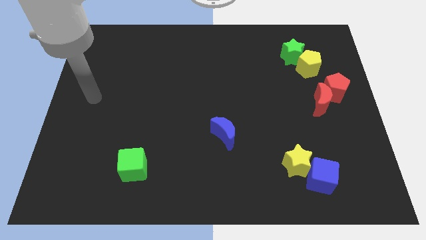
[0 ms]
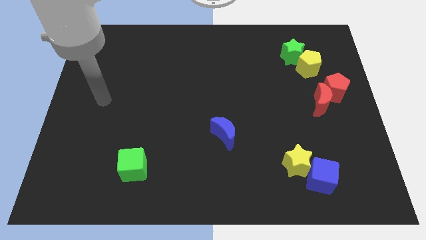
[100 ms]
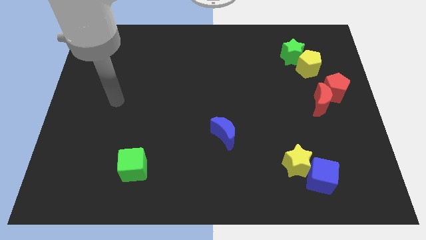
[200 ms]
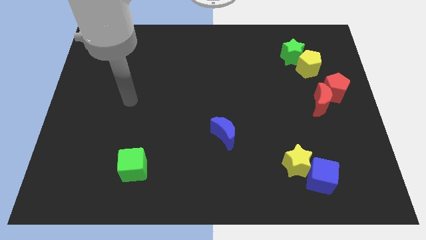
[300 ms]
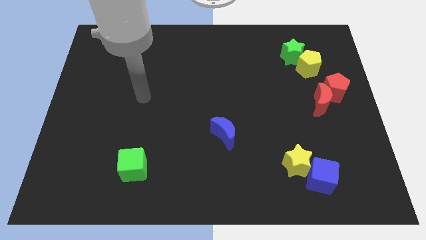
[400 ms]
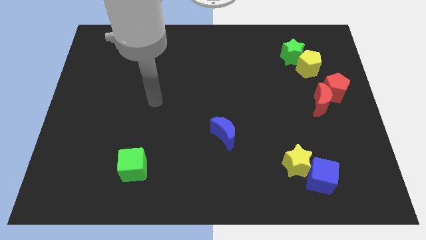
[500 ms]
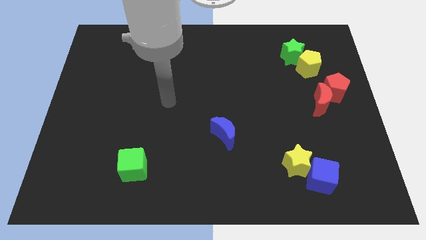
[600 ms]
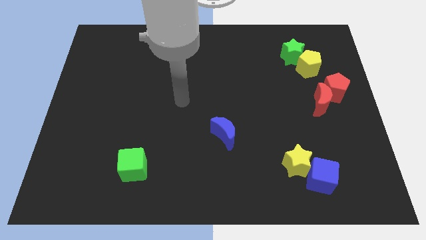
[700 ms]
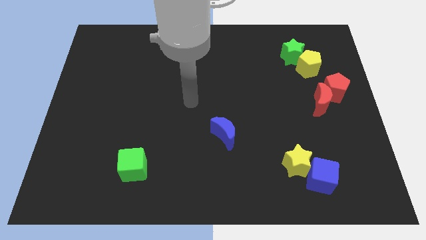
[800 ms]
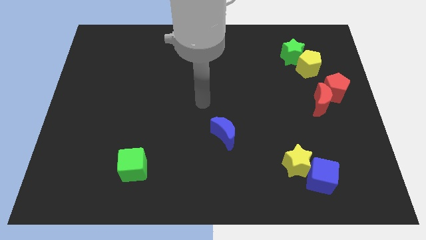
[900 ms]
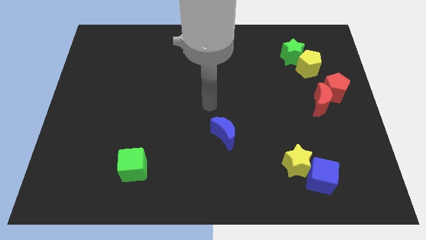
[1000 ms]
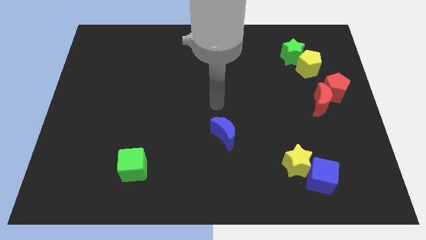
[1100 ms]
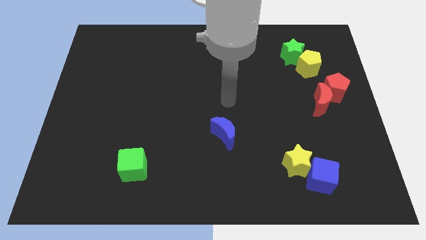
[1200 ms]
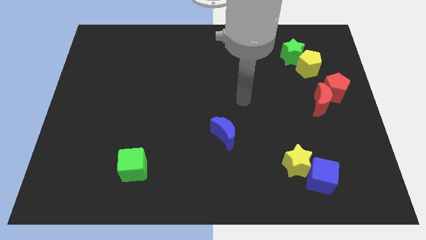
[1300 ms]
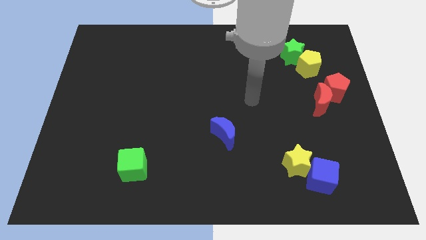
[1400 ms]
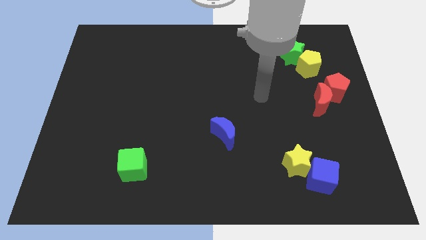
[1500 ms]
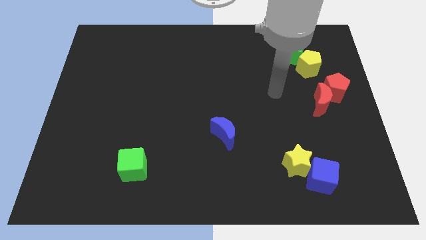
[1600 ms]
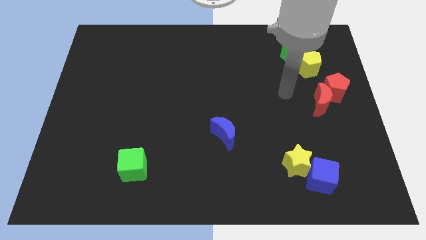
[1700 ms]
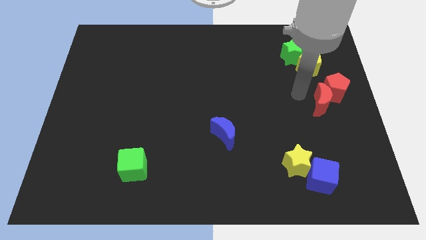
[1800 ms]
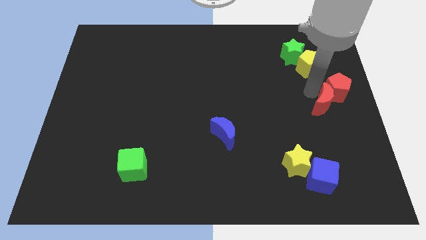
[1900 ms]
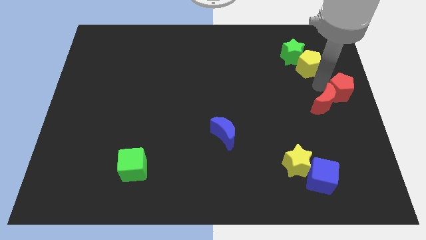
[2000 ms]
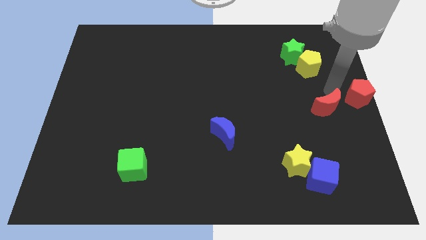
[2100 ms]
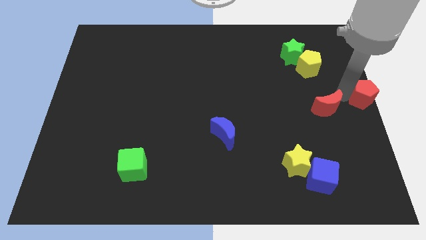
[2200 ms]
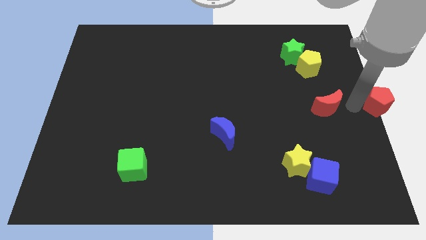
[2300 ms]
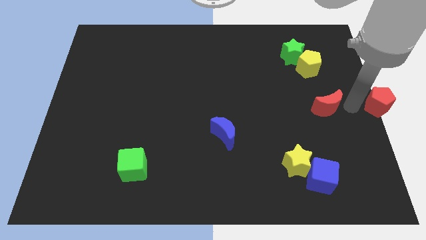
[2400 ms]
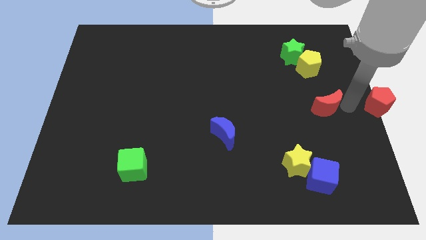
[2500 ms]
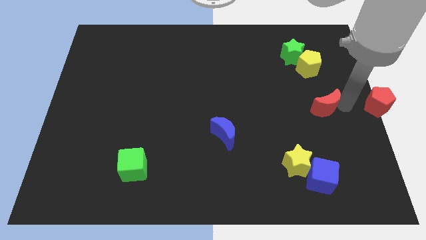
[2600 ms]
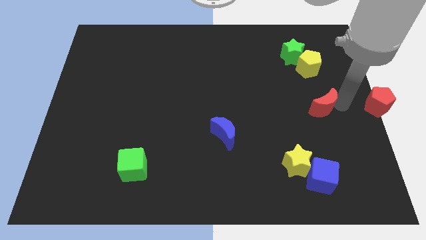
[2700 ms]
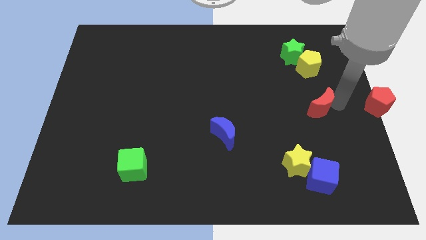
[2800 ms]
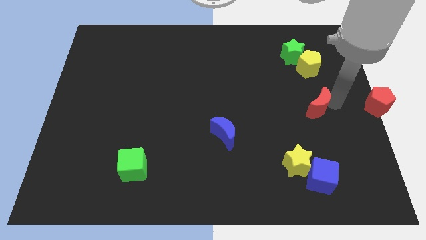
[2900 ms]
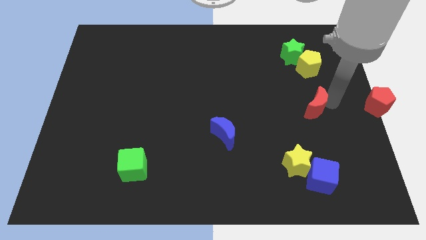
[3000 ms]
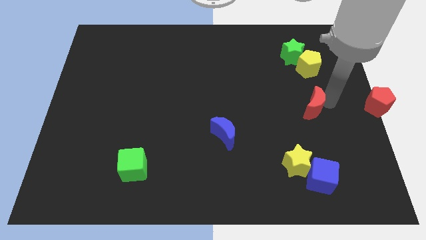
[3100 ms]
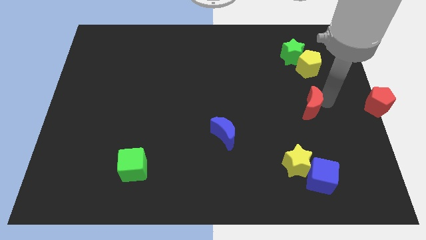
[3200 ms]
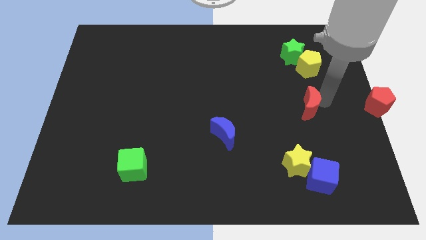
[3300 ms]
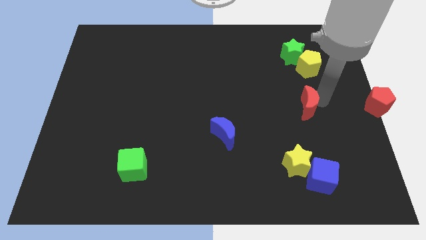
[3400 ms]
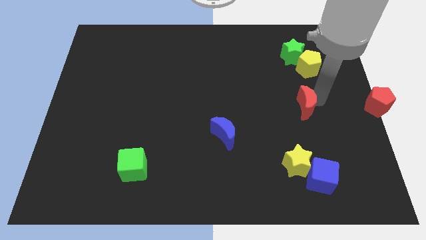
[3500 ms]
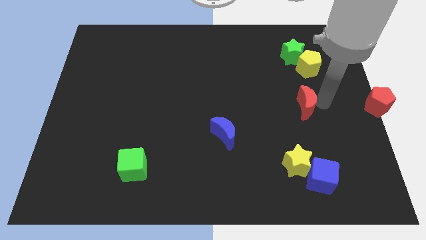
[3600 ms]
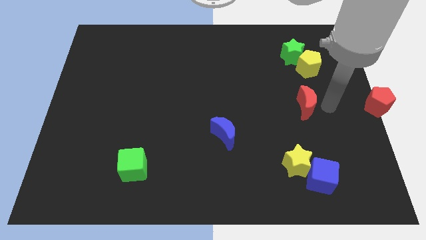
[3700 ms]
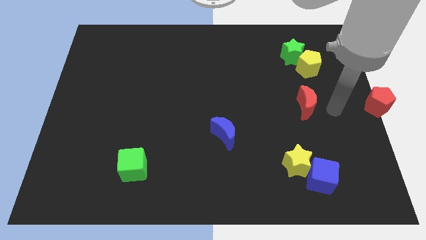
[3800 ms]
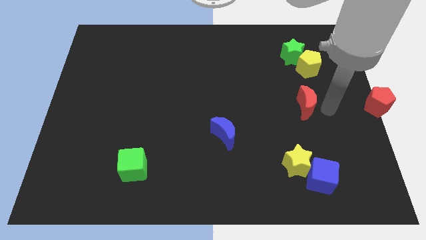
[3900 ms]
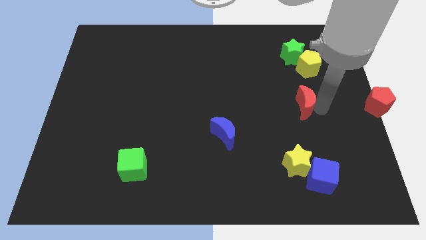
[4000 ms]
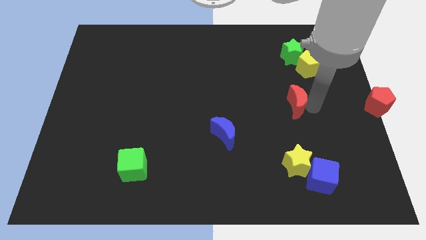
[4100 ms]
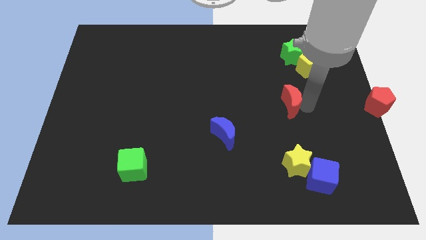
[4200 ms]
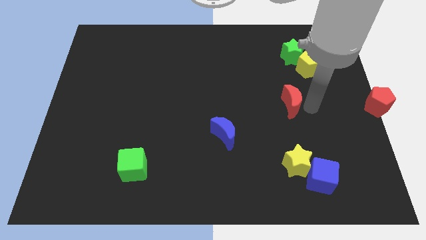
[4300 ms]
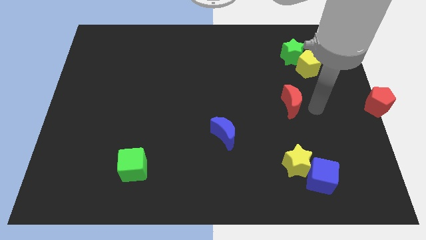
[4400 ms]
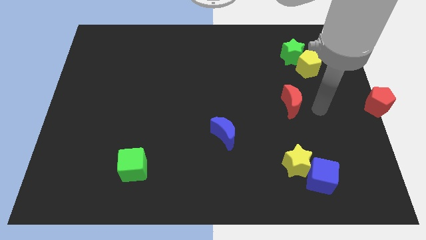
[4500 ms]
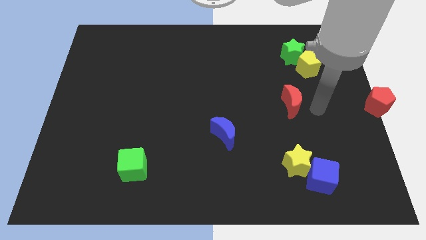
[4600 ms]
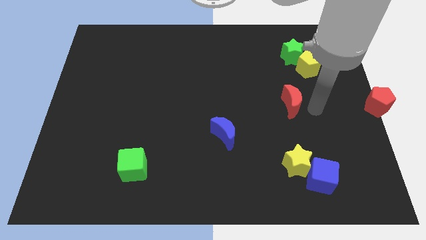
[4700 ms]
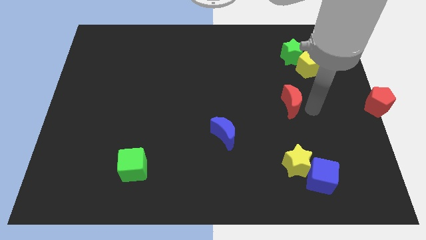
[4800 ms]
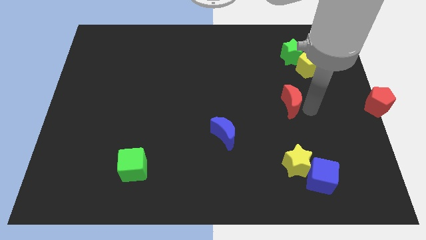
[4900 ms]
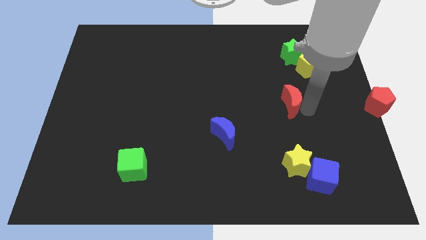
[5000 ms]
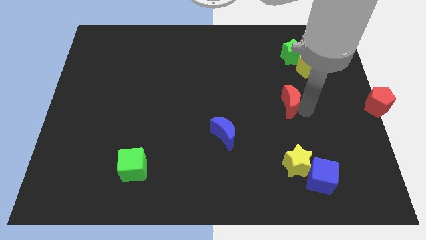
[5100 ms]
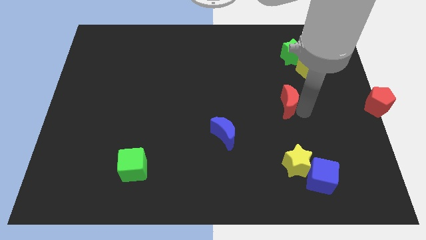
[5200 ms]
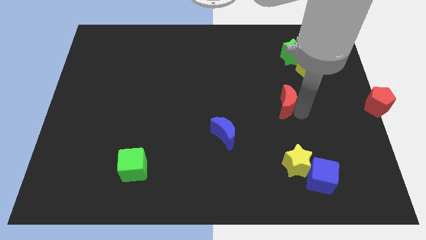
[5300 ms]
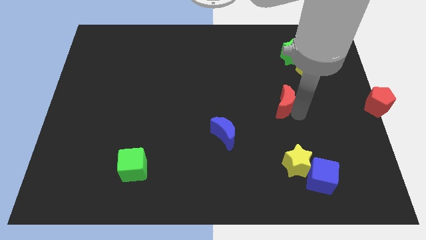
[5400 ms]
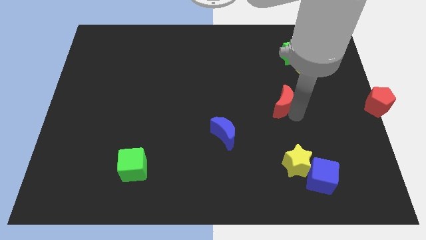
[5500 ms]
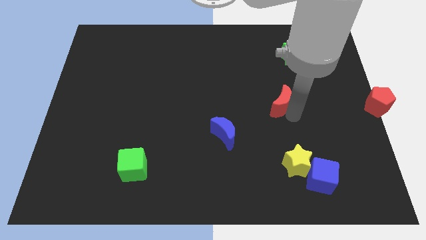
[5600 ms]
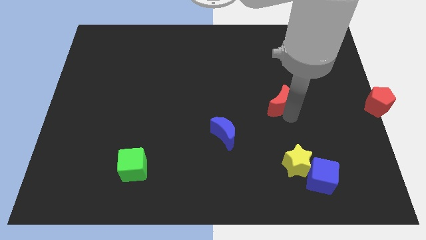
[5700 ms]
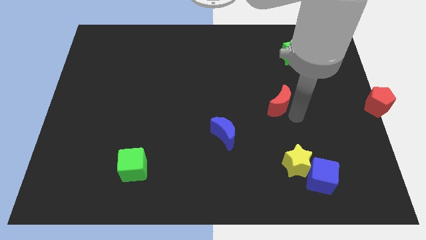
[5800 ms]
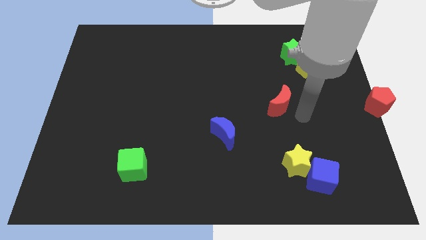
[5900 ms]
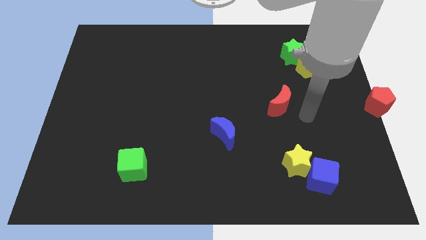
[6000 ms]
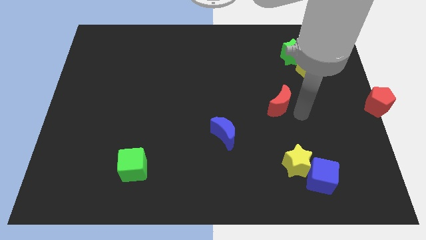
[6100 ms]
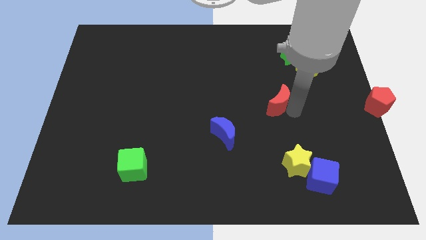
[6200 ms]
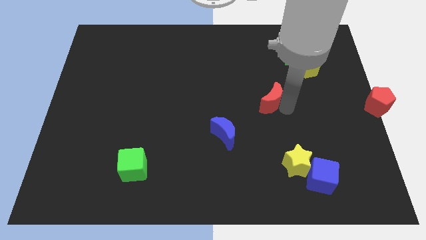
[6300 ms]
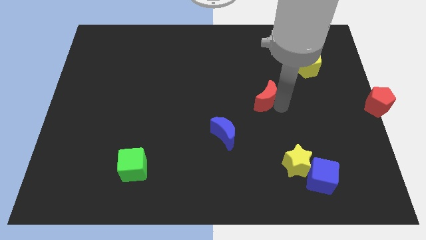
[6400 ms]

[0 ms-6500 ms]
put the red moon to the middle of the board
